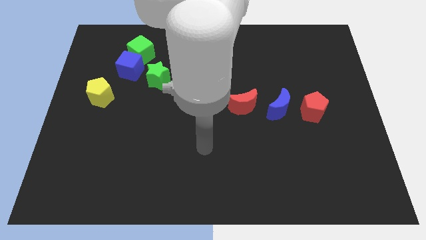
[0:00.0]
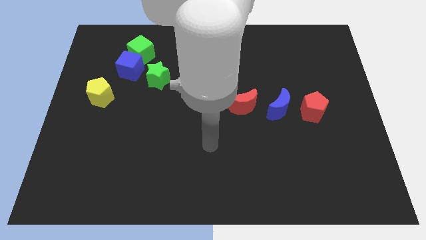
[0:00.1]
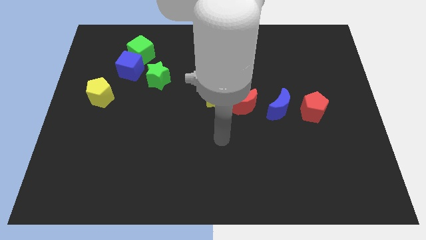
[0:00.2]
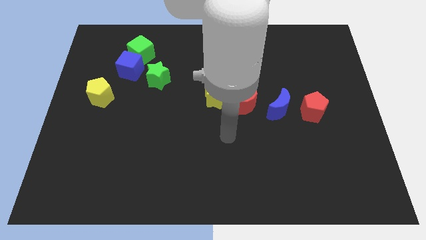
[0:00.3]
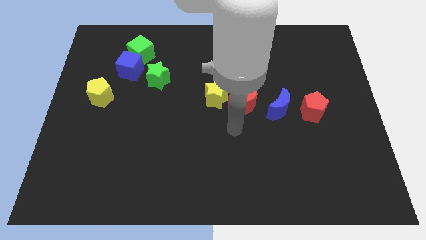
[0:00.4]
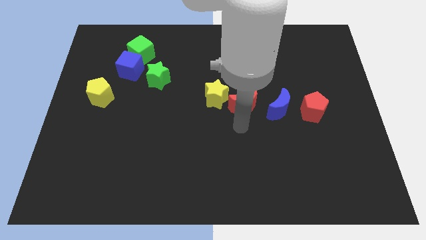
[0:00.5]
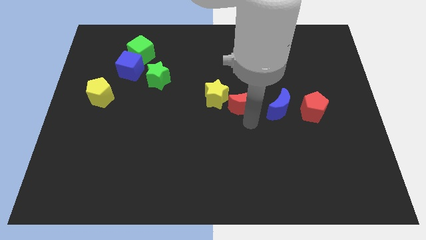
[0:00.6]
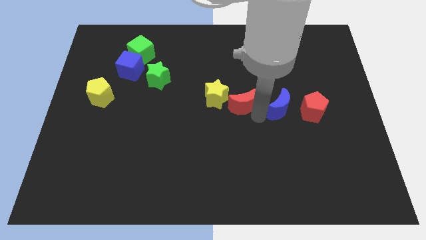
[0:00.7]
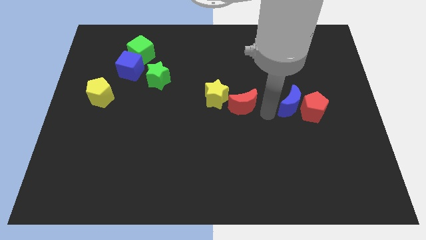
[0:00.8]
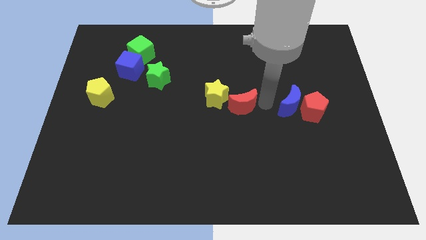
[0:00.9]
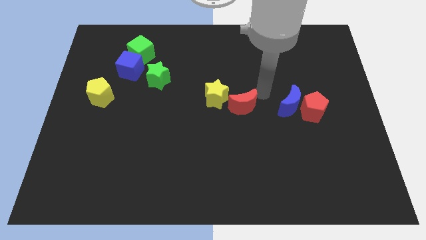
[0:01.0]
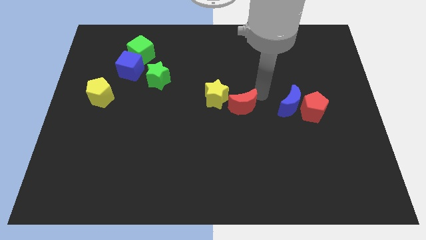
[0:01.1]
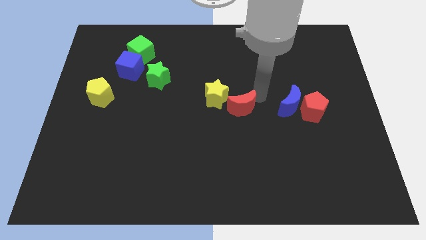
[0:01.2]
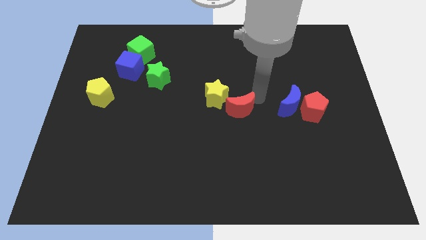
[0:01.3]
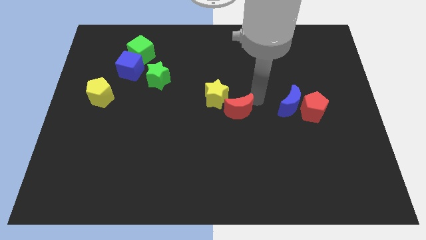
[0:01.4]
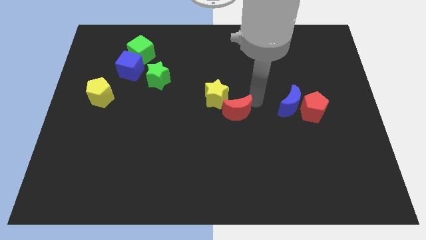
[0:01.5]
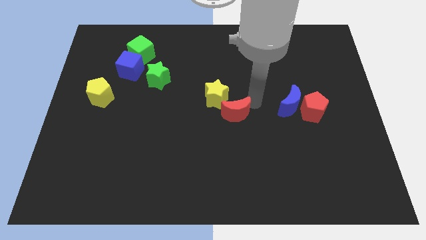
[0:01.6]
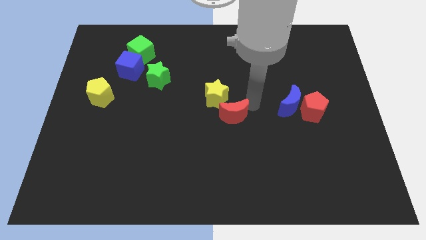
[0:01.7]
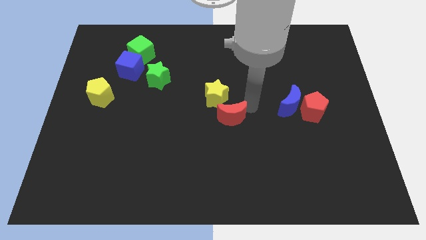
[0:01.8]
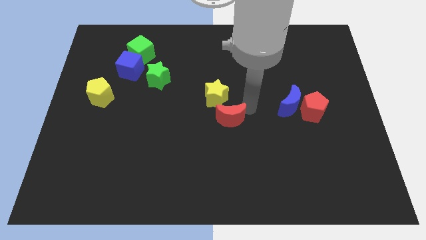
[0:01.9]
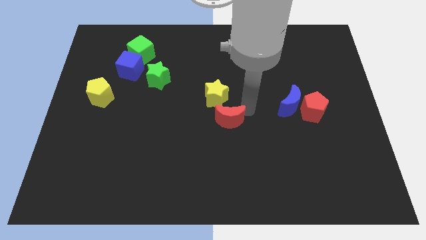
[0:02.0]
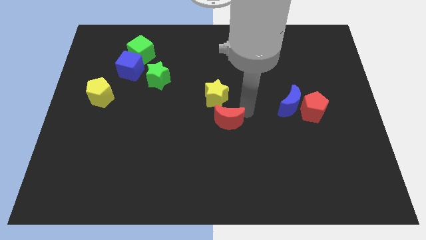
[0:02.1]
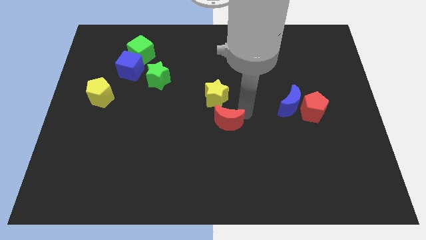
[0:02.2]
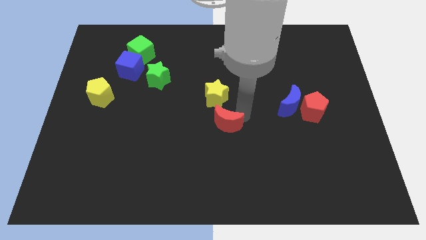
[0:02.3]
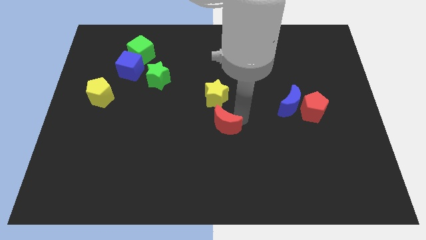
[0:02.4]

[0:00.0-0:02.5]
move the red moon downwards and to the left diagonally slightly

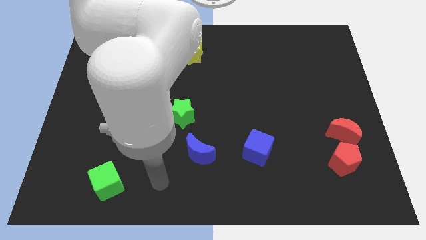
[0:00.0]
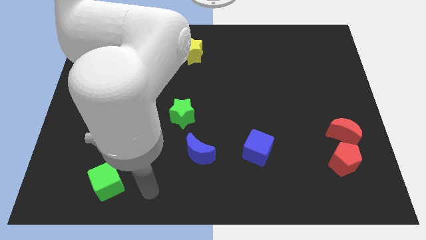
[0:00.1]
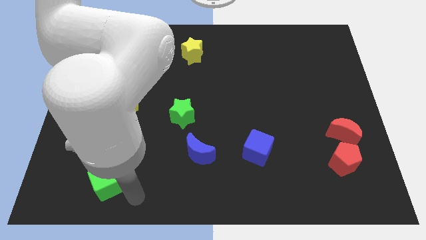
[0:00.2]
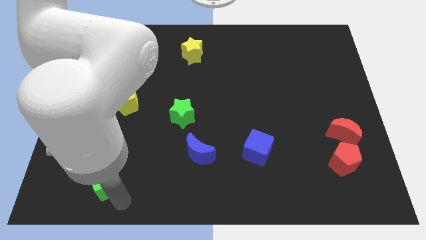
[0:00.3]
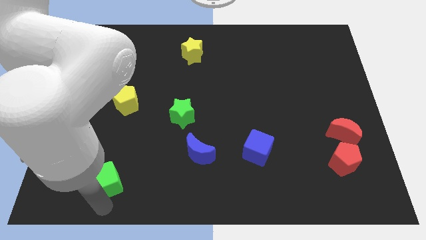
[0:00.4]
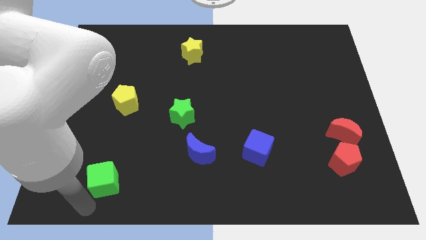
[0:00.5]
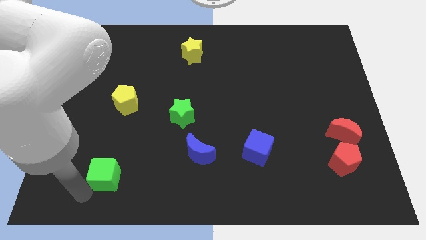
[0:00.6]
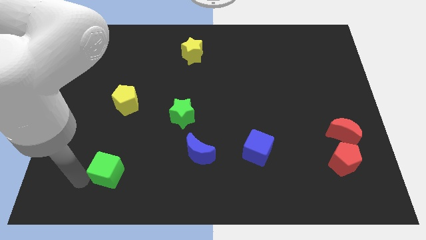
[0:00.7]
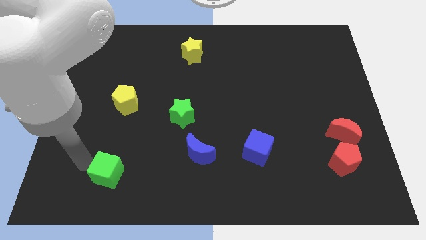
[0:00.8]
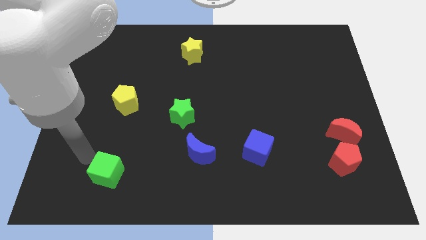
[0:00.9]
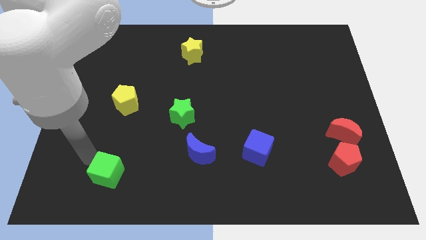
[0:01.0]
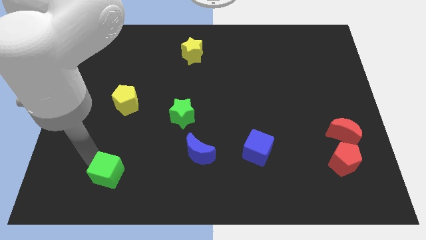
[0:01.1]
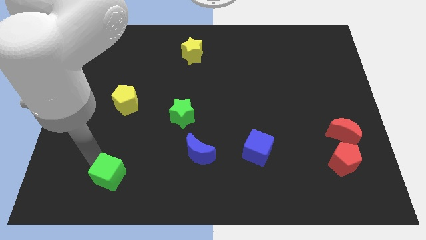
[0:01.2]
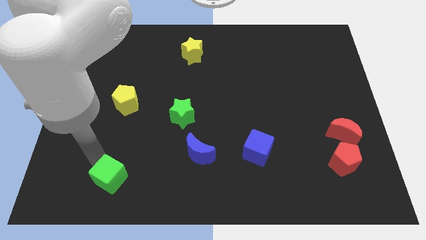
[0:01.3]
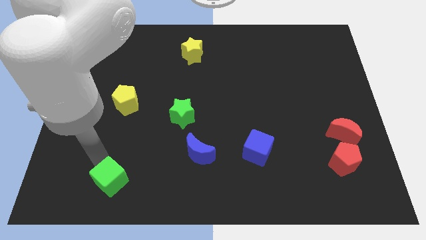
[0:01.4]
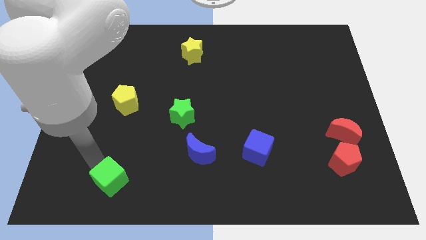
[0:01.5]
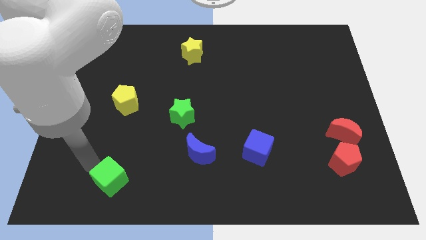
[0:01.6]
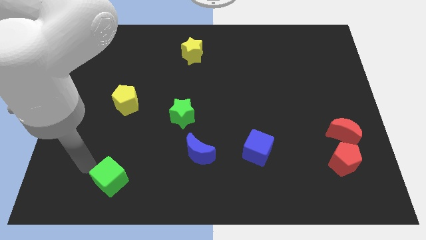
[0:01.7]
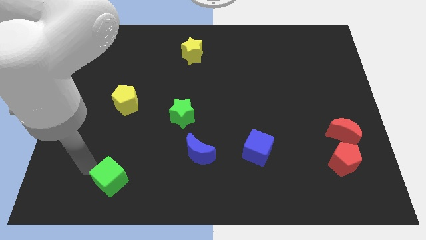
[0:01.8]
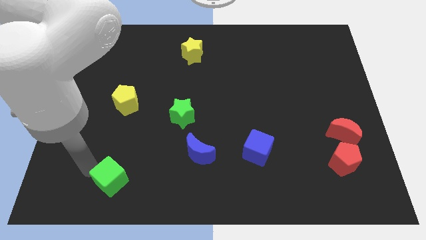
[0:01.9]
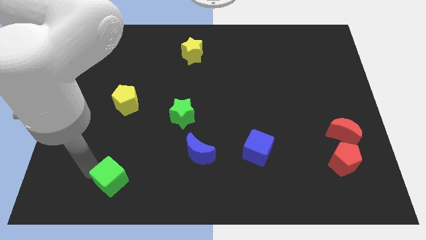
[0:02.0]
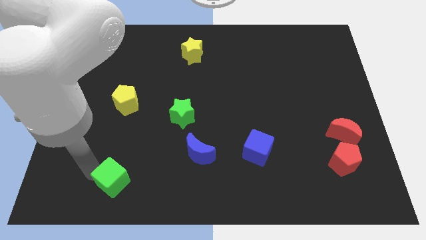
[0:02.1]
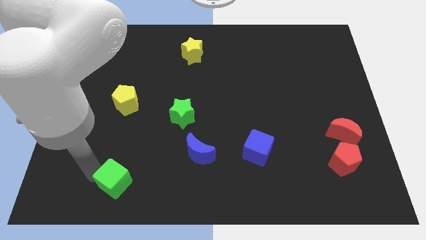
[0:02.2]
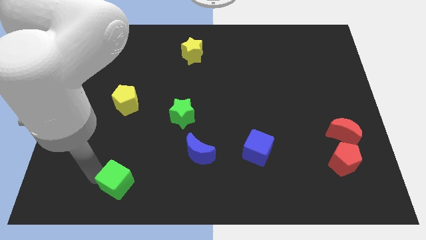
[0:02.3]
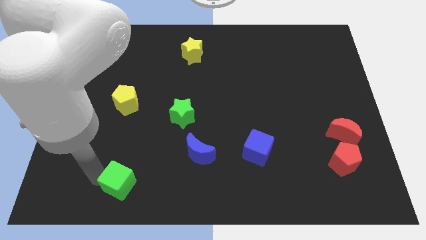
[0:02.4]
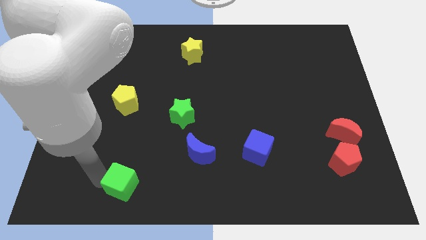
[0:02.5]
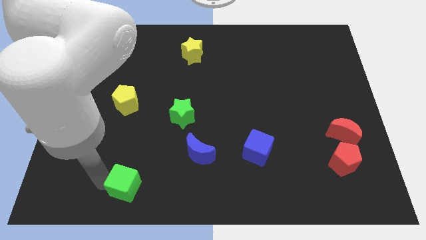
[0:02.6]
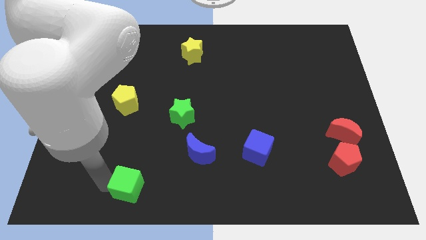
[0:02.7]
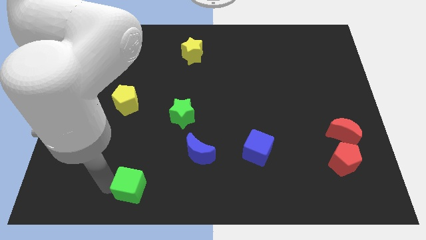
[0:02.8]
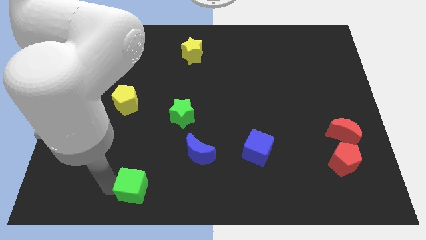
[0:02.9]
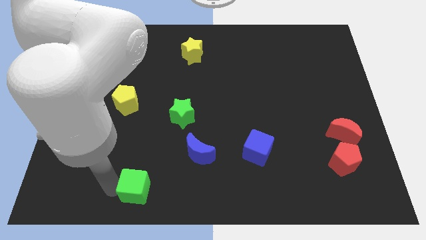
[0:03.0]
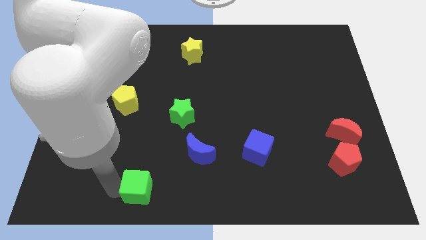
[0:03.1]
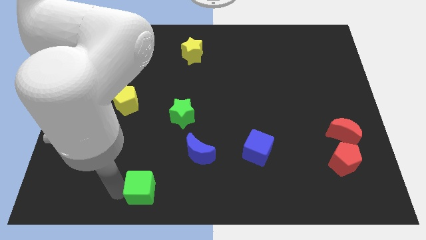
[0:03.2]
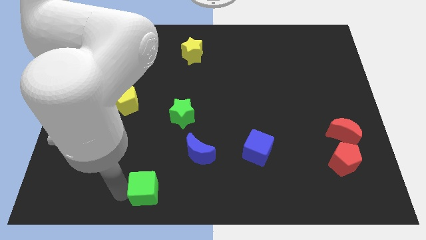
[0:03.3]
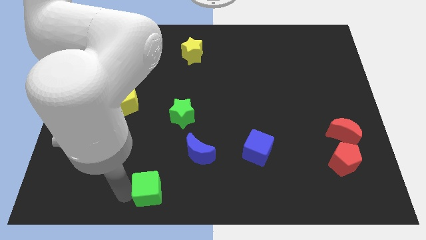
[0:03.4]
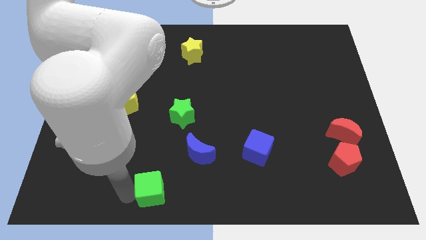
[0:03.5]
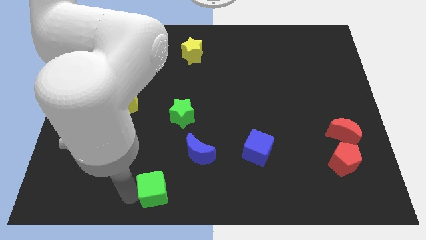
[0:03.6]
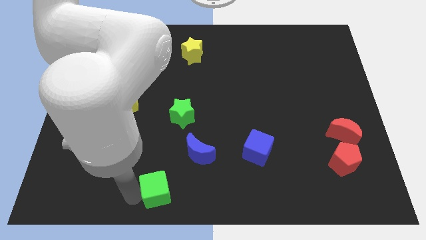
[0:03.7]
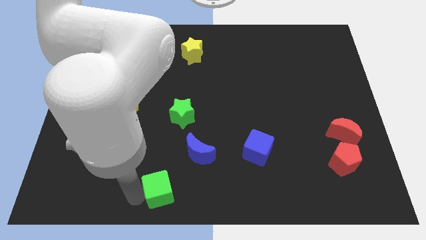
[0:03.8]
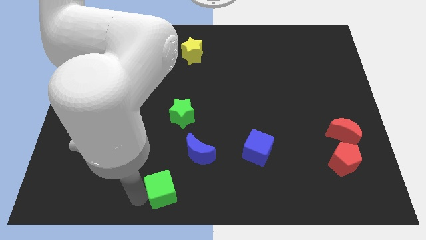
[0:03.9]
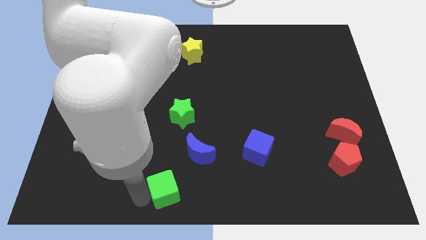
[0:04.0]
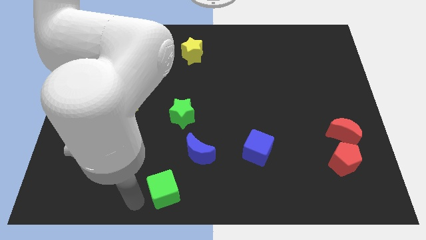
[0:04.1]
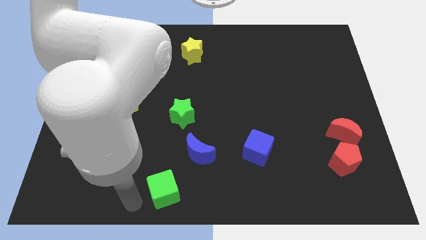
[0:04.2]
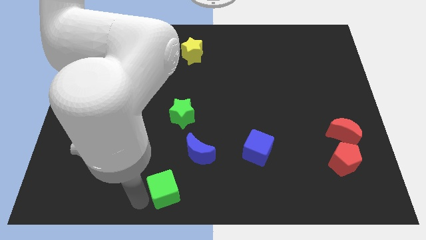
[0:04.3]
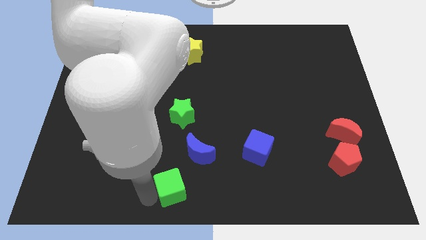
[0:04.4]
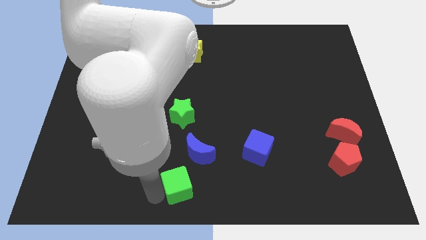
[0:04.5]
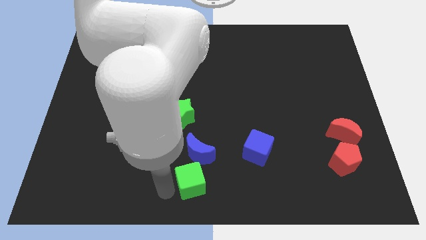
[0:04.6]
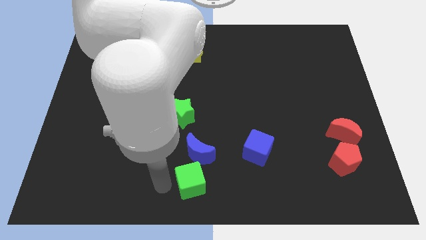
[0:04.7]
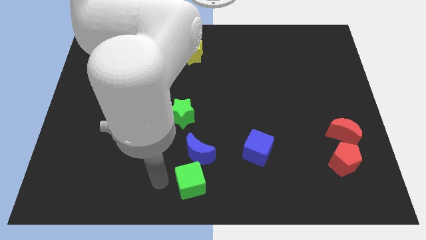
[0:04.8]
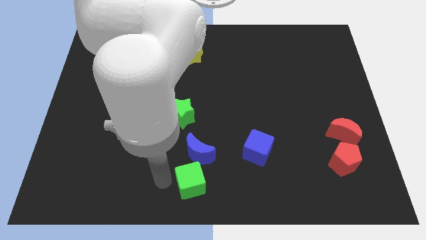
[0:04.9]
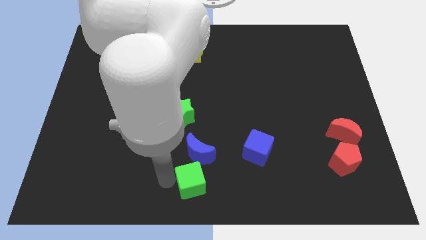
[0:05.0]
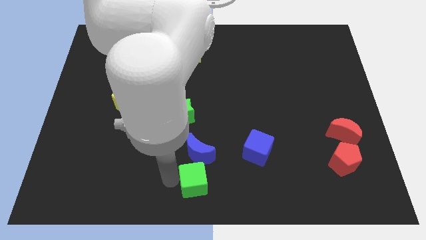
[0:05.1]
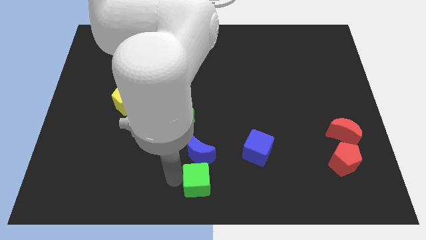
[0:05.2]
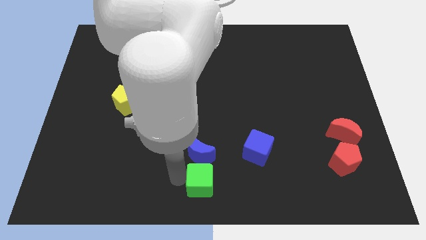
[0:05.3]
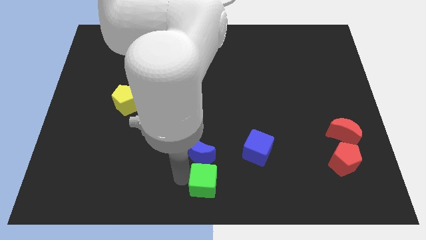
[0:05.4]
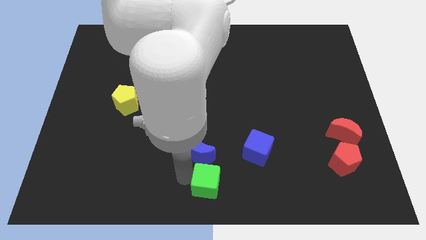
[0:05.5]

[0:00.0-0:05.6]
slide the green cube right
